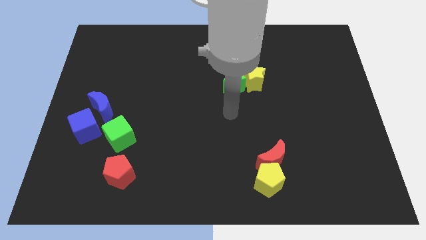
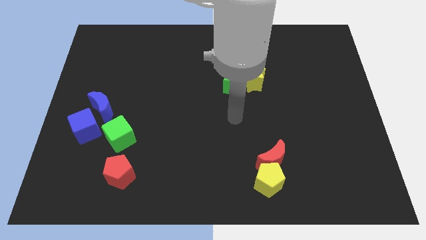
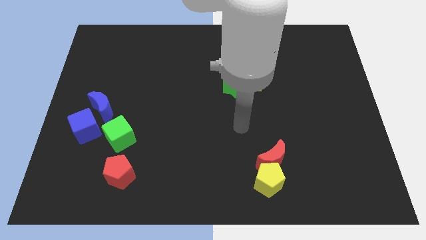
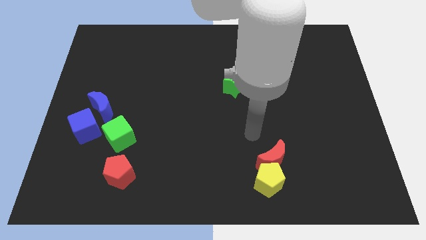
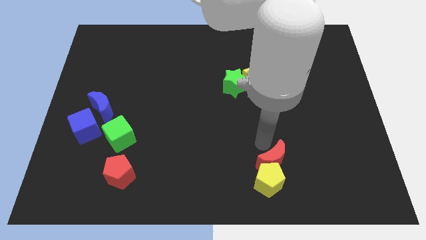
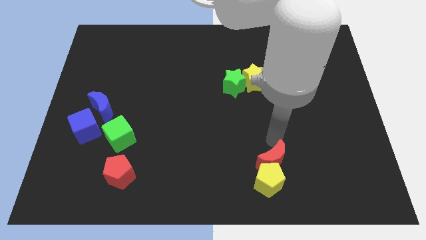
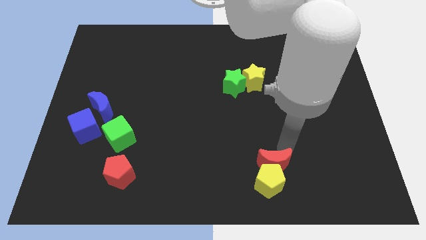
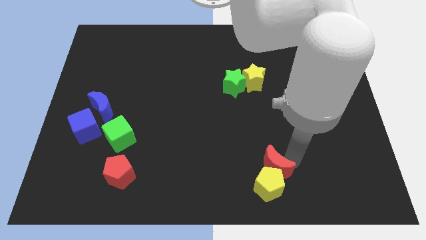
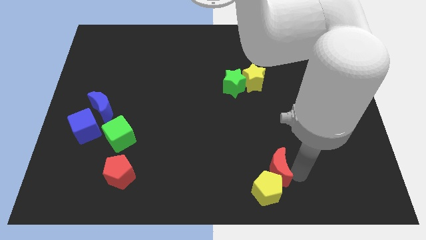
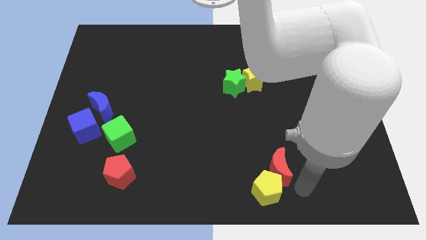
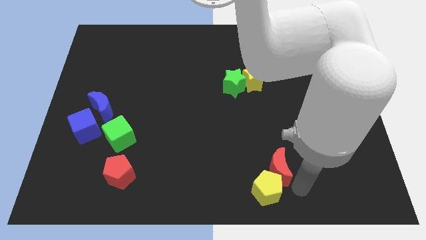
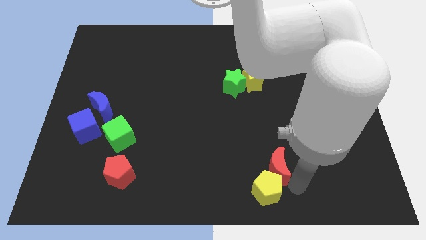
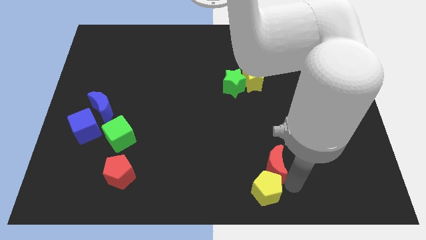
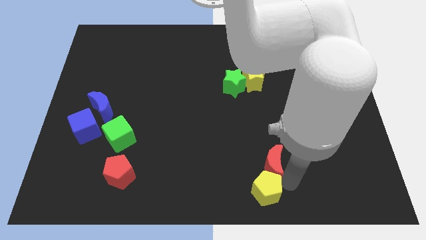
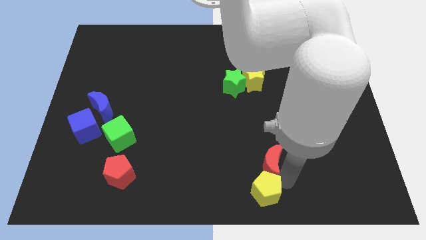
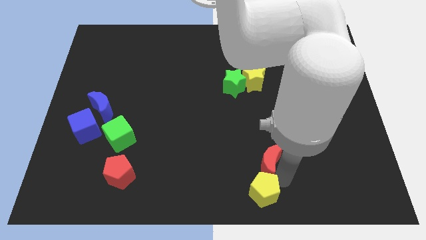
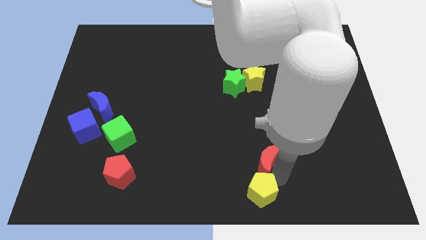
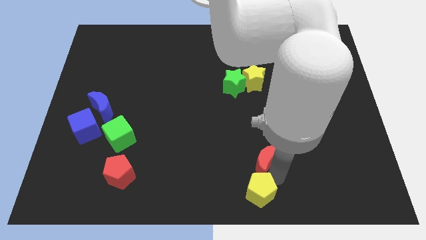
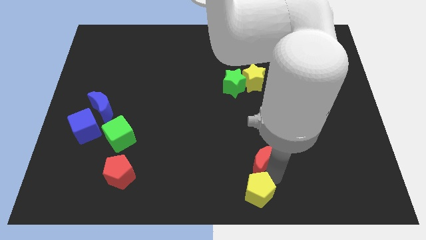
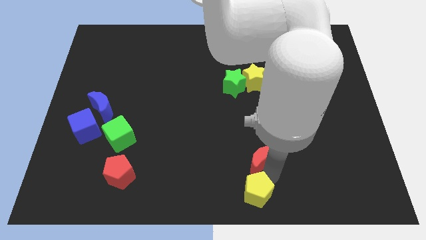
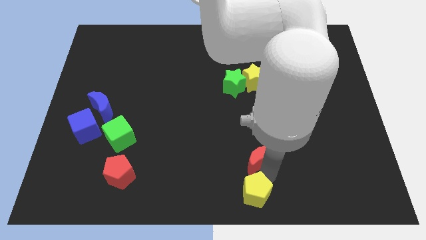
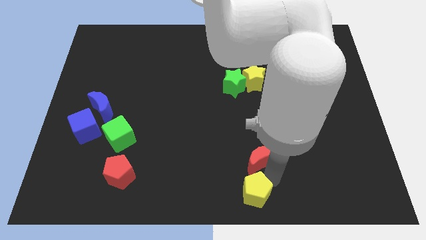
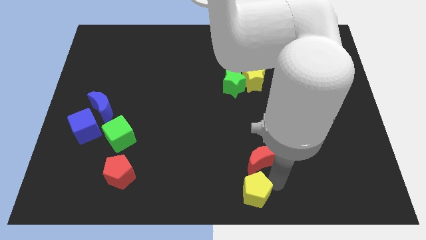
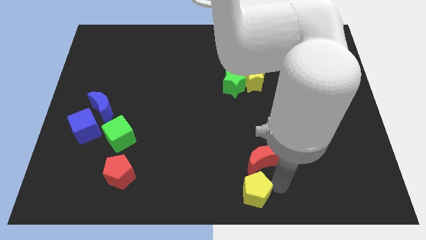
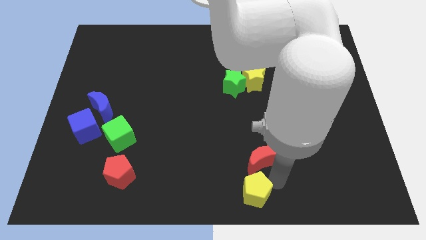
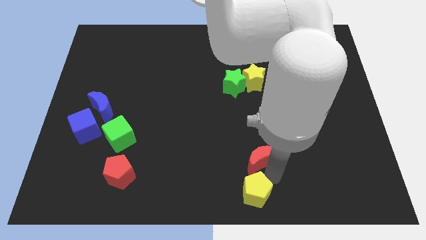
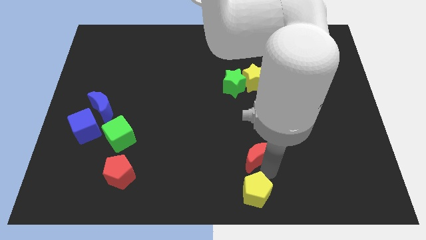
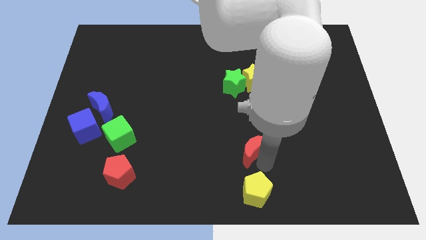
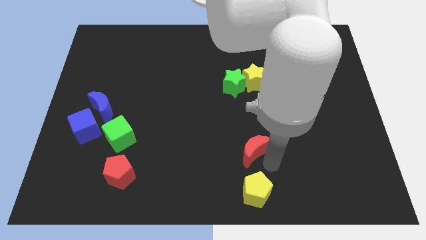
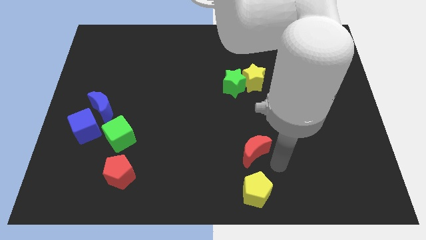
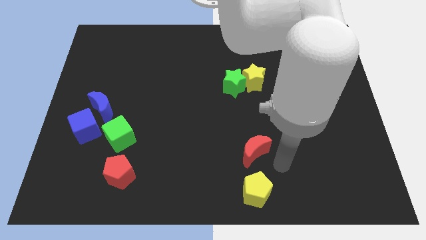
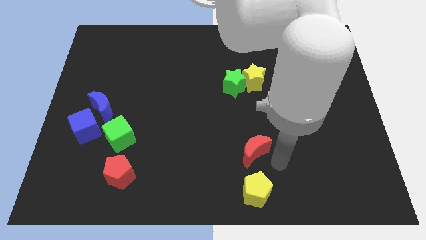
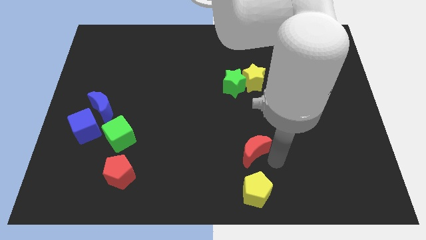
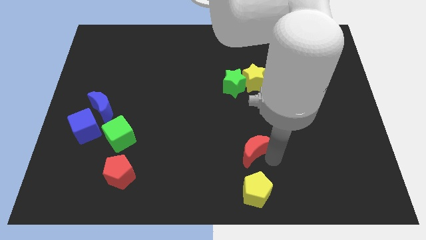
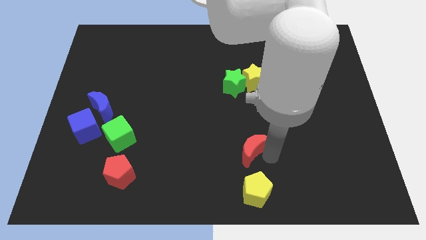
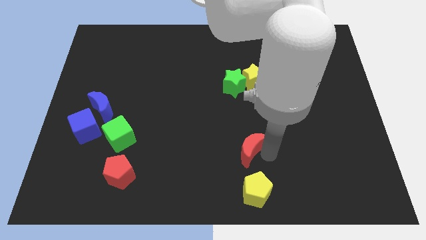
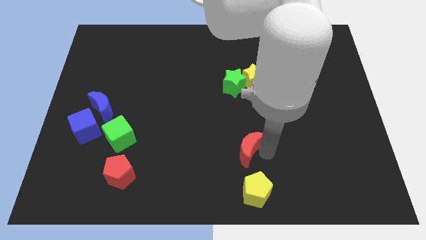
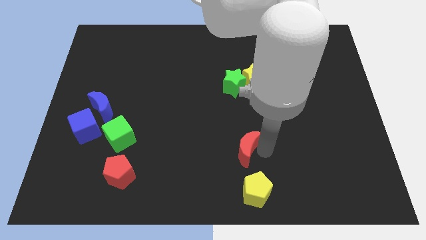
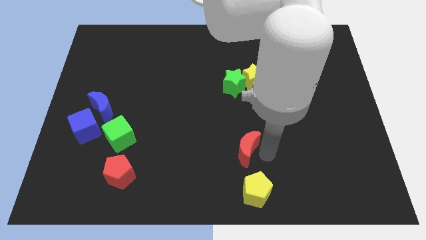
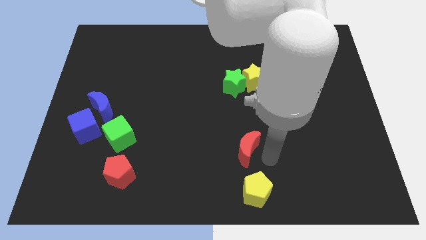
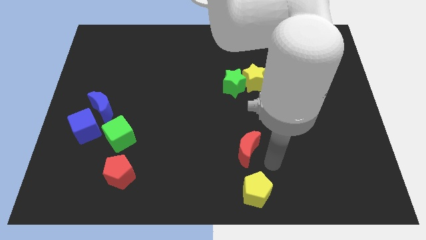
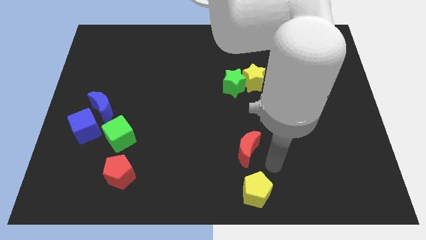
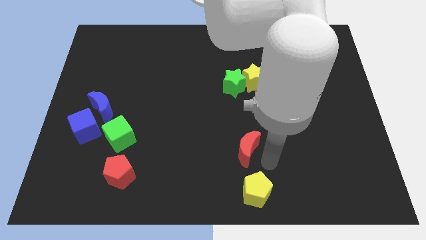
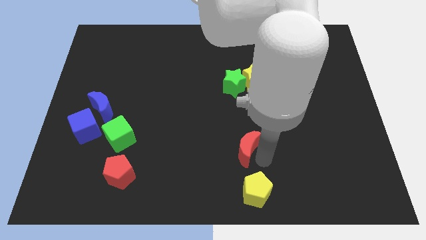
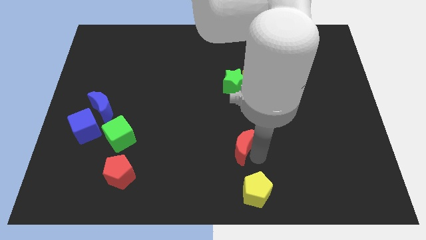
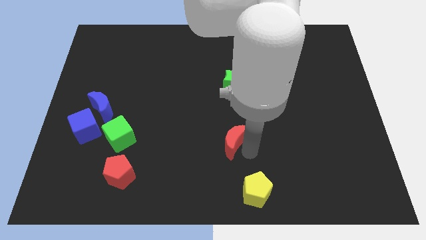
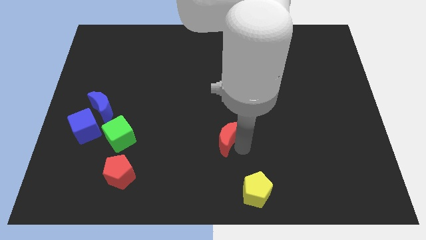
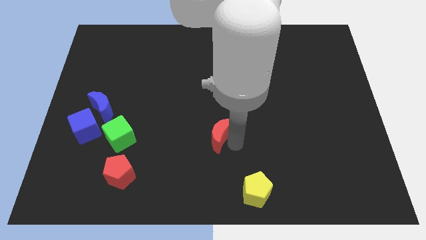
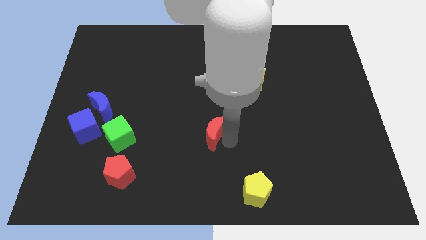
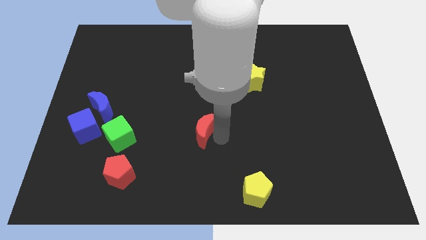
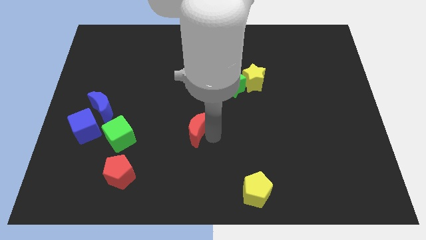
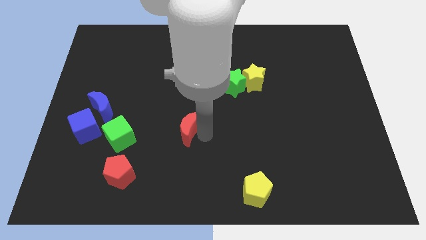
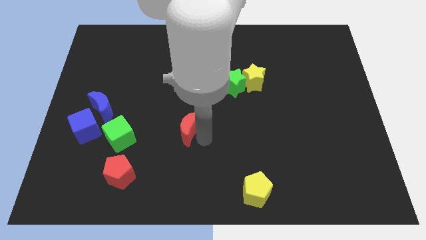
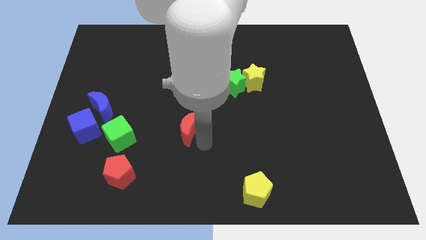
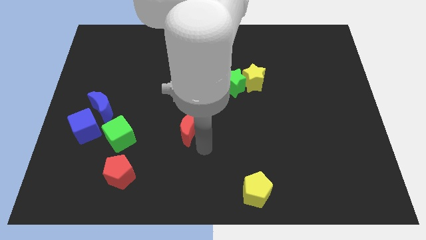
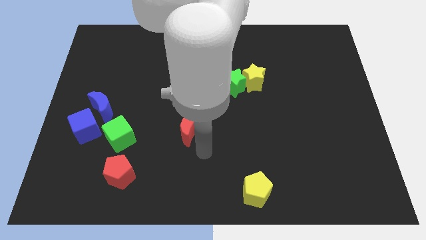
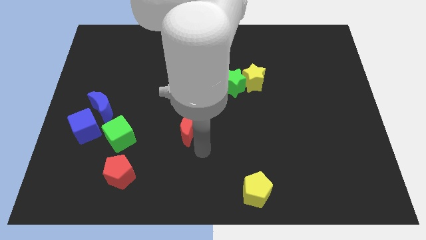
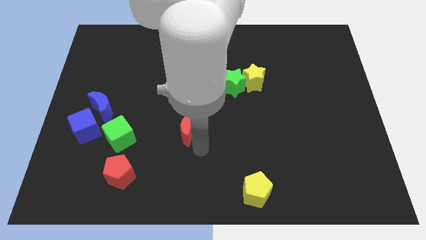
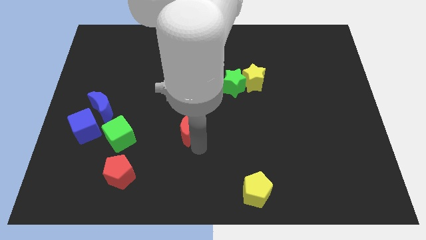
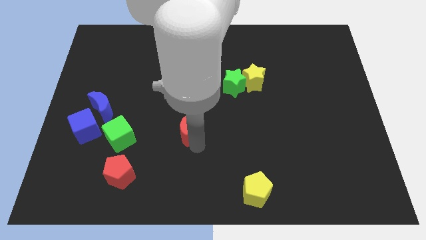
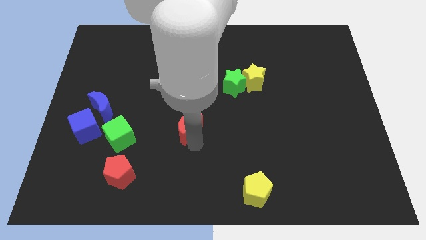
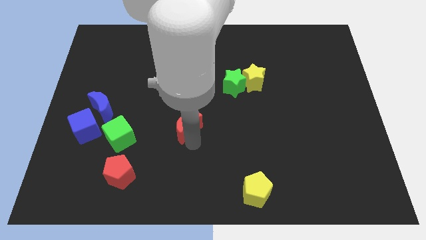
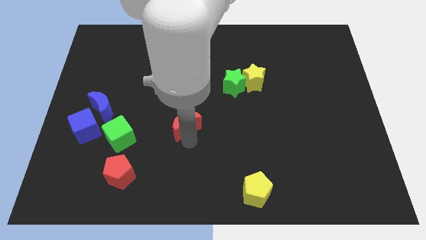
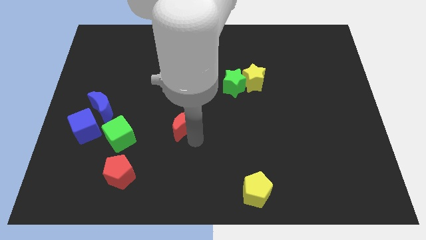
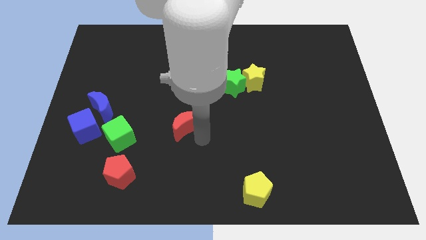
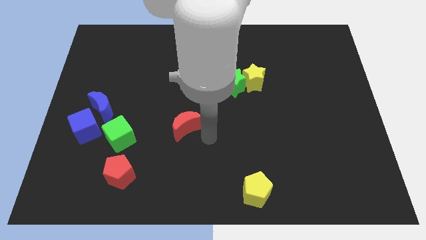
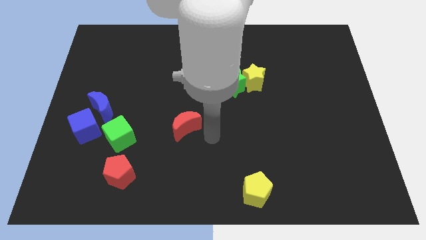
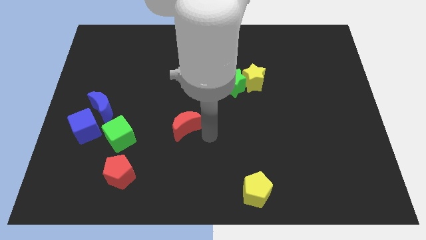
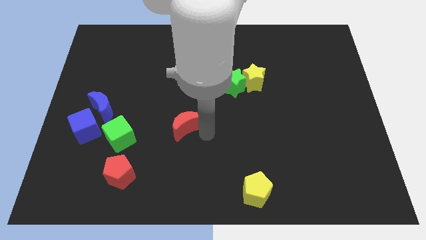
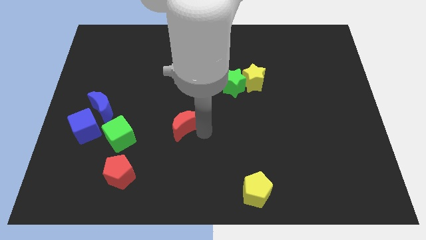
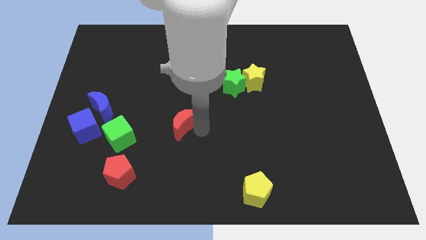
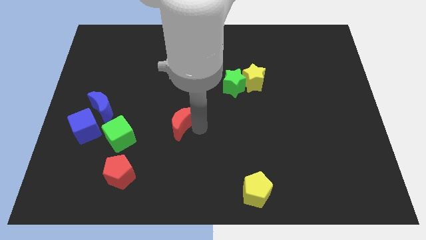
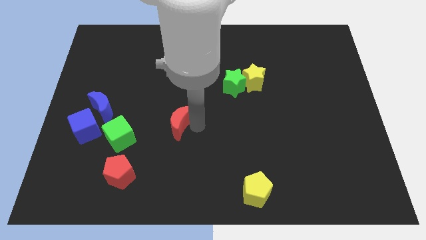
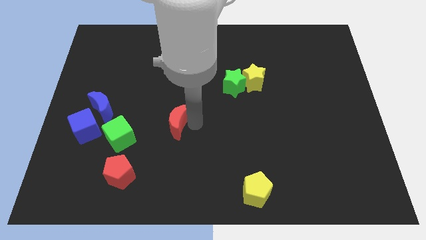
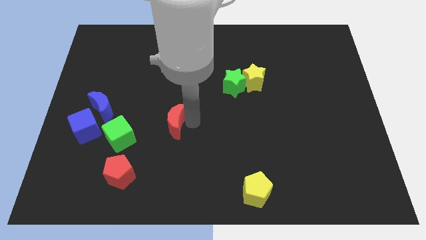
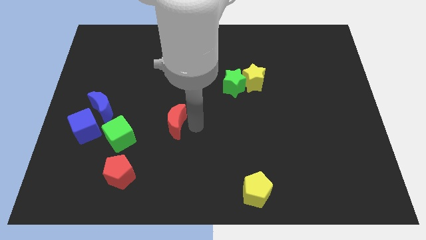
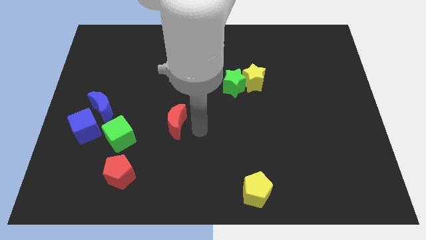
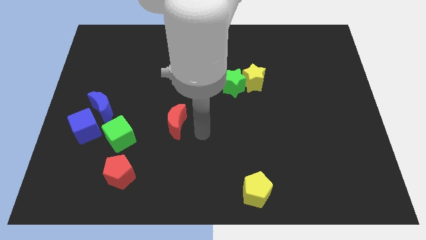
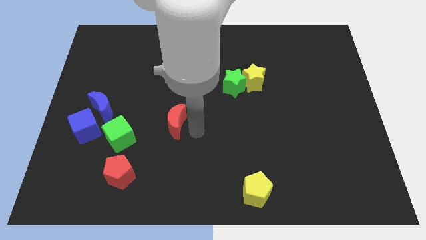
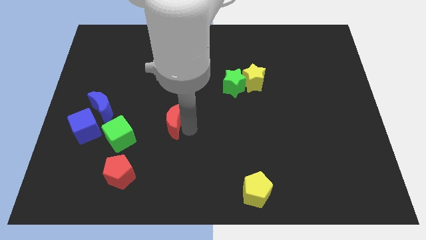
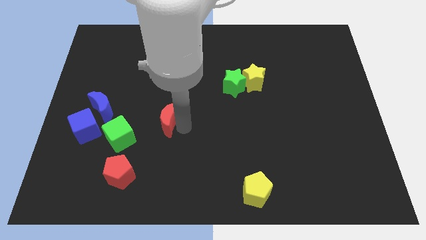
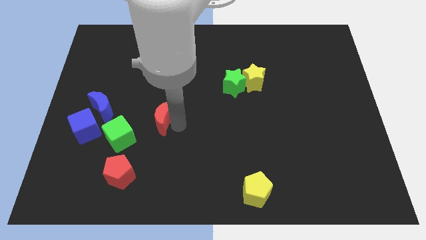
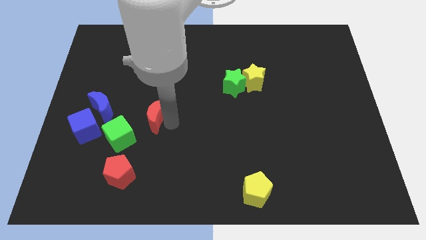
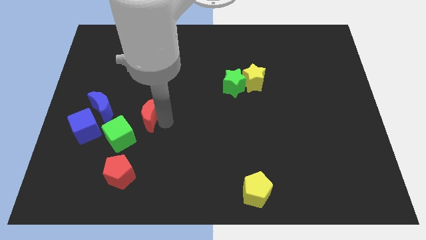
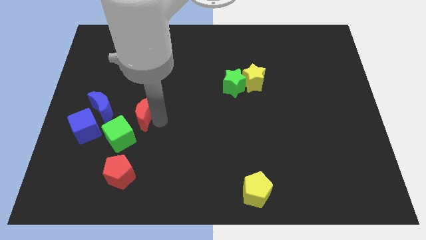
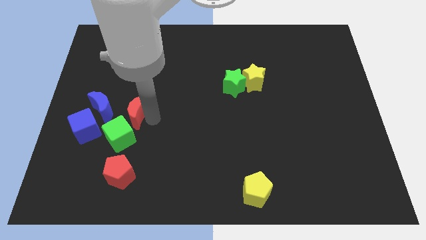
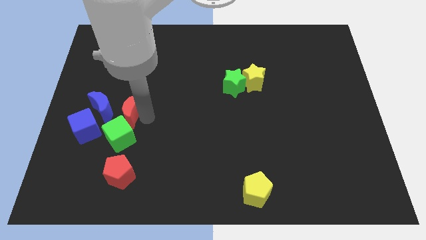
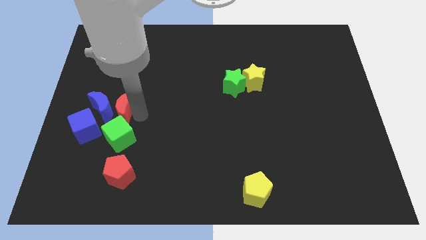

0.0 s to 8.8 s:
push the red moon next to the blue moon
